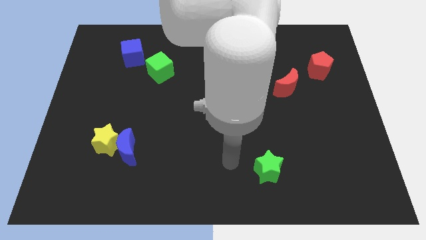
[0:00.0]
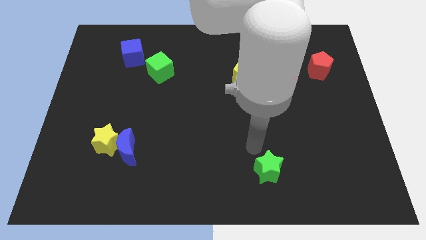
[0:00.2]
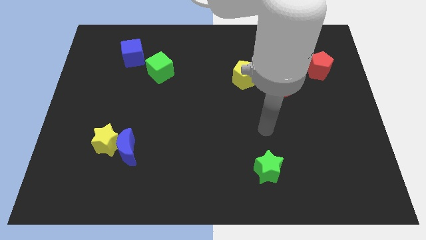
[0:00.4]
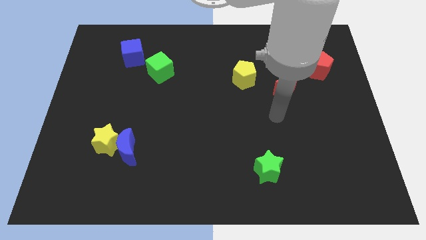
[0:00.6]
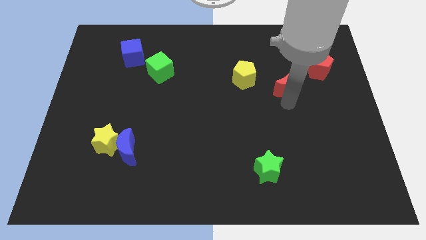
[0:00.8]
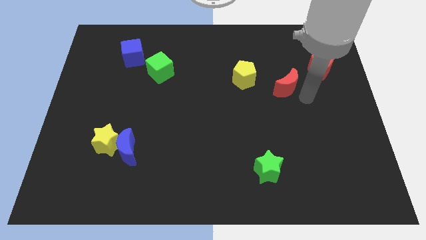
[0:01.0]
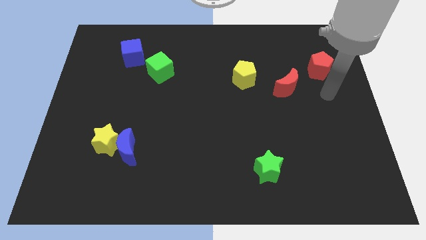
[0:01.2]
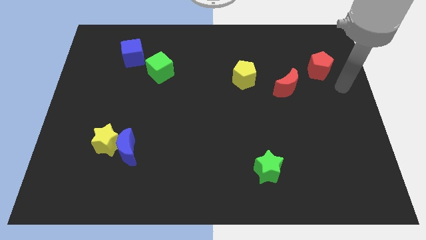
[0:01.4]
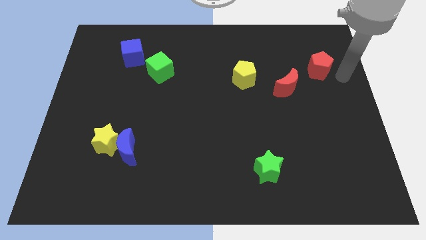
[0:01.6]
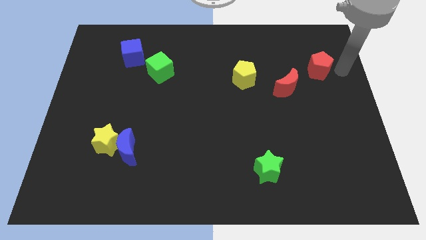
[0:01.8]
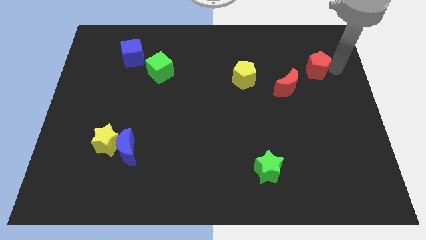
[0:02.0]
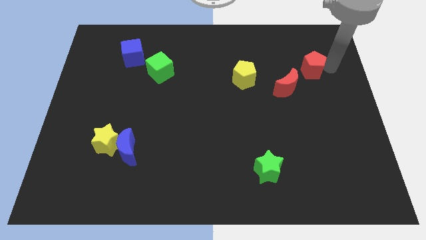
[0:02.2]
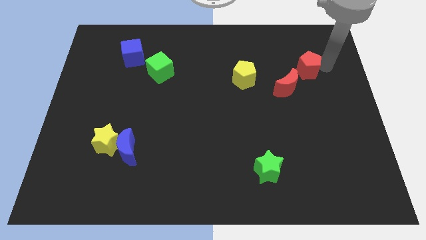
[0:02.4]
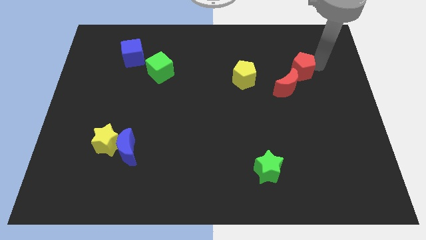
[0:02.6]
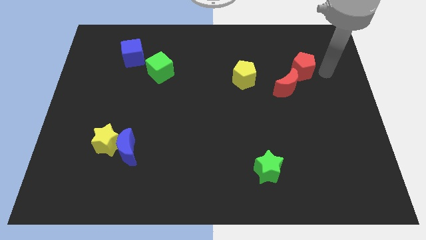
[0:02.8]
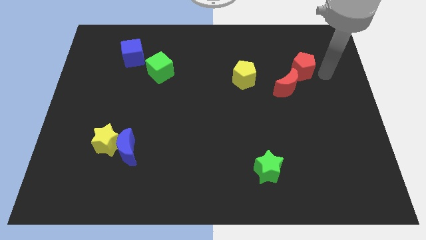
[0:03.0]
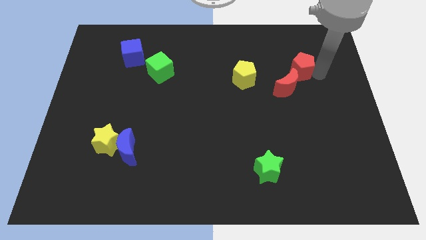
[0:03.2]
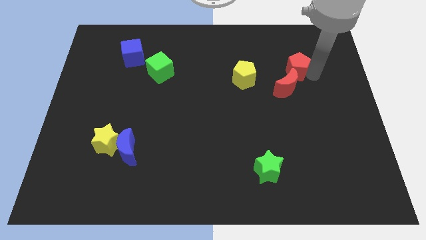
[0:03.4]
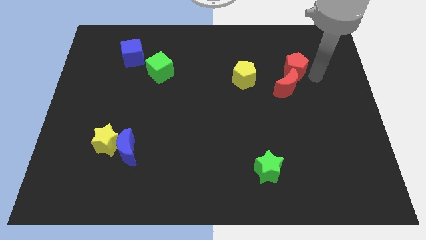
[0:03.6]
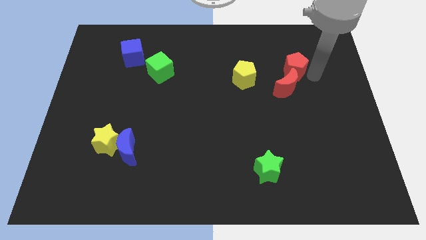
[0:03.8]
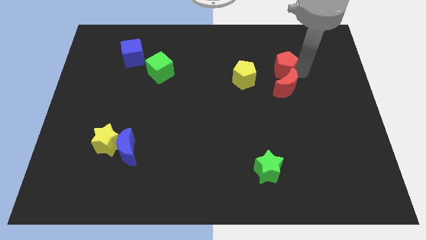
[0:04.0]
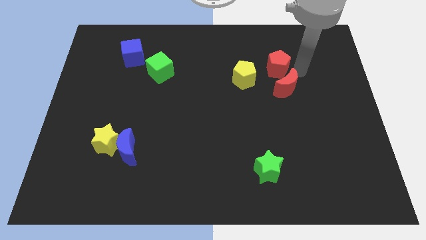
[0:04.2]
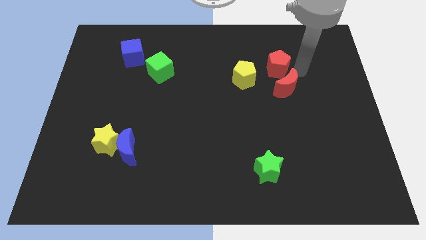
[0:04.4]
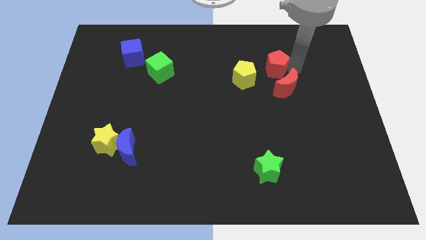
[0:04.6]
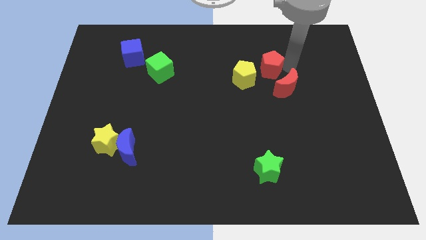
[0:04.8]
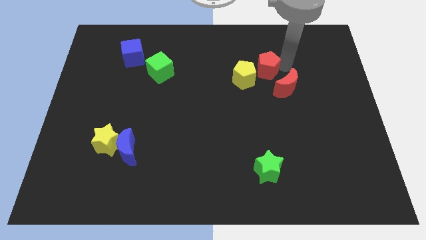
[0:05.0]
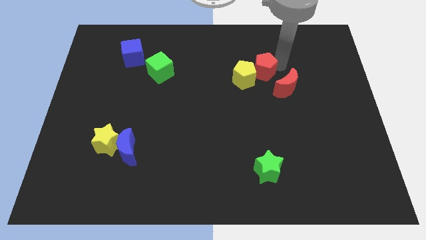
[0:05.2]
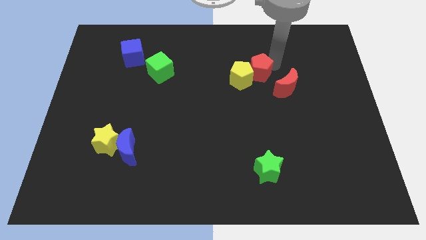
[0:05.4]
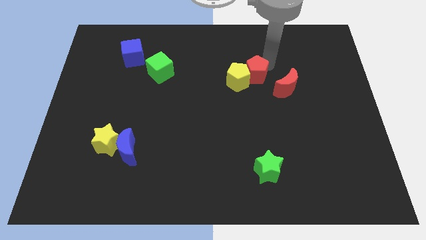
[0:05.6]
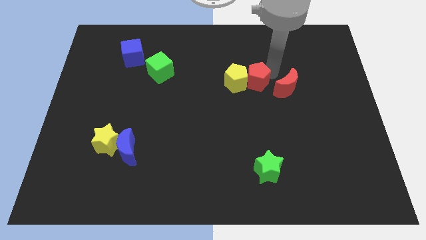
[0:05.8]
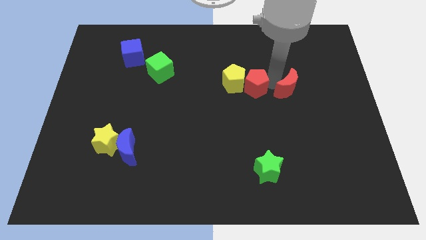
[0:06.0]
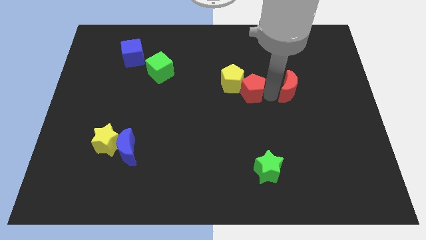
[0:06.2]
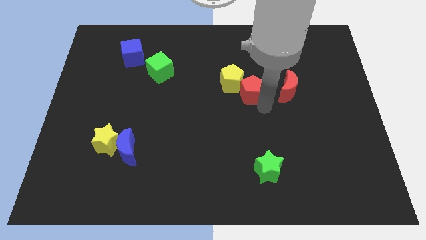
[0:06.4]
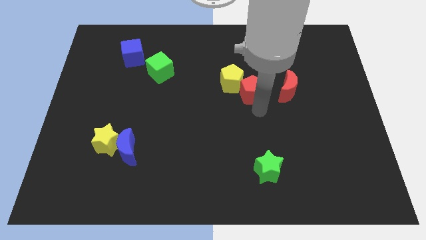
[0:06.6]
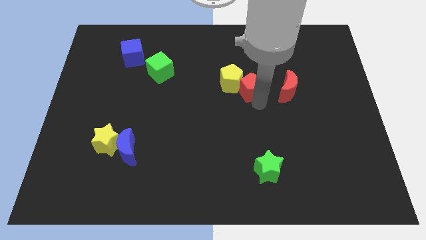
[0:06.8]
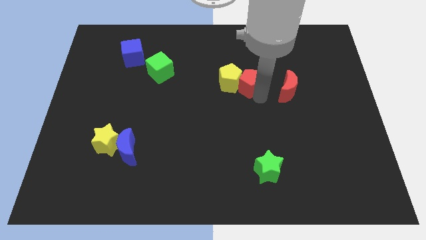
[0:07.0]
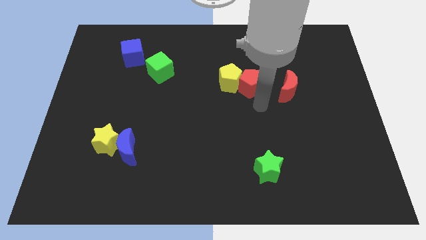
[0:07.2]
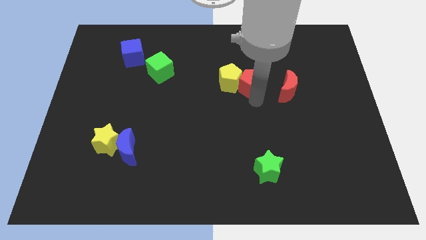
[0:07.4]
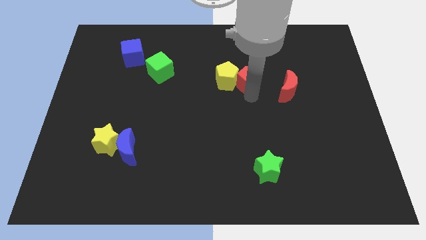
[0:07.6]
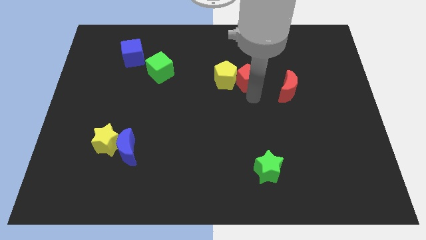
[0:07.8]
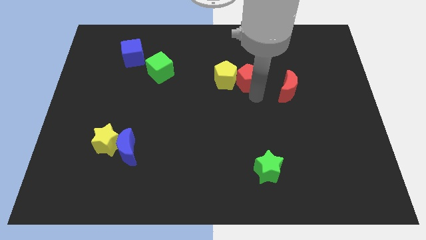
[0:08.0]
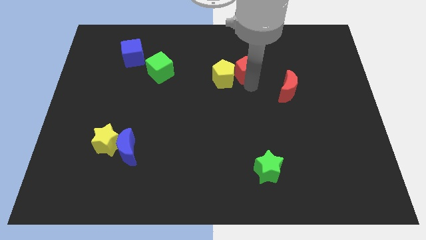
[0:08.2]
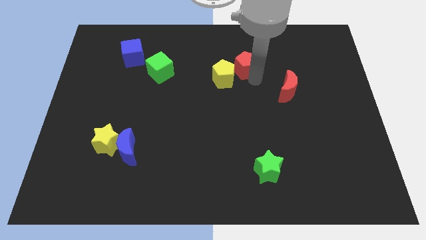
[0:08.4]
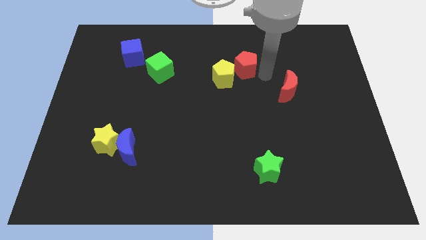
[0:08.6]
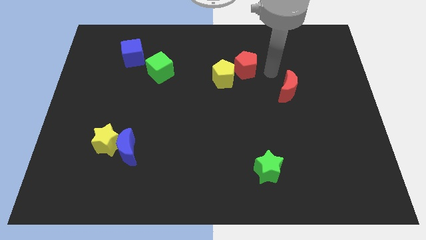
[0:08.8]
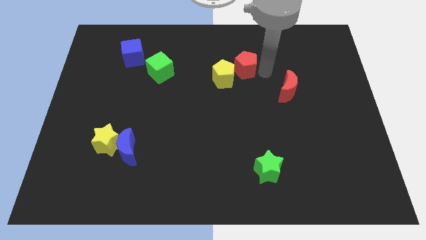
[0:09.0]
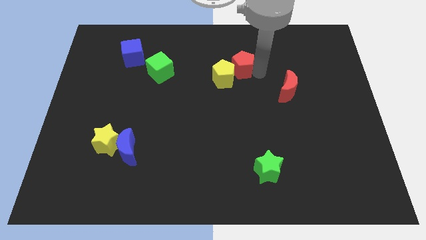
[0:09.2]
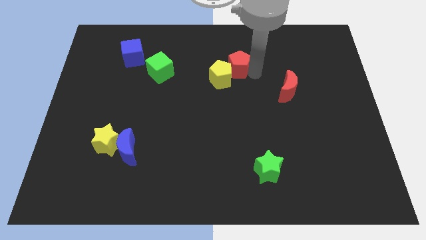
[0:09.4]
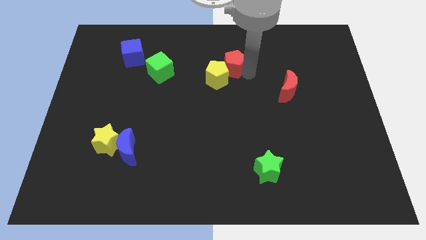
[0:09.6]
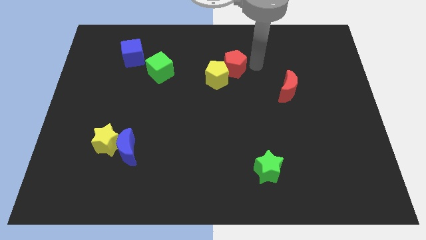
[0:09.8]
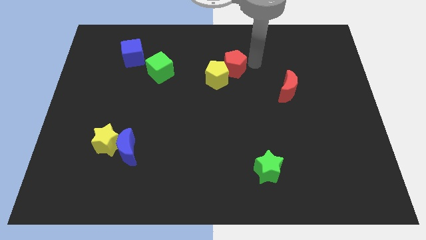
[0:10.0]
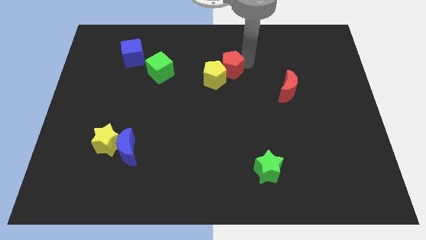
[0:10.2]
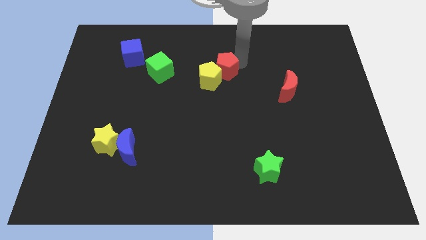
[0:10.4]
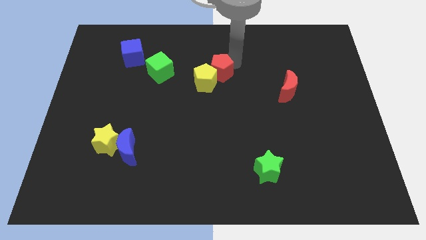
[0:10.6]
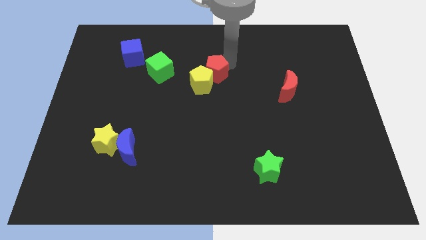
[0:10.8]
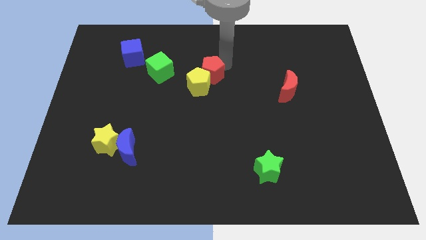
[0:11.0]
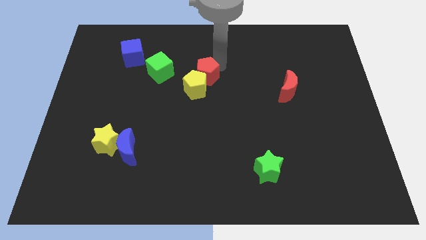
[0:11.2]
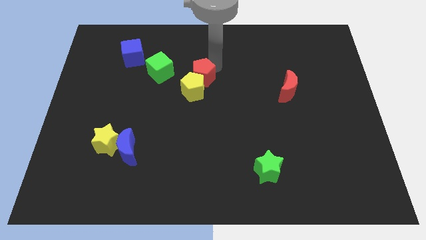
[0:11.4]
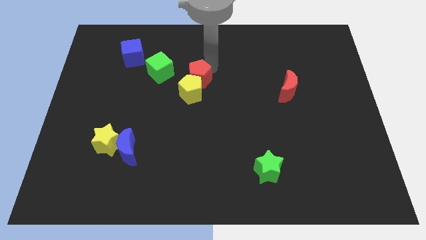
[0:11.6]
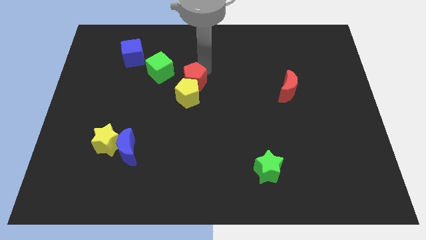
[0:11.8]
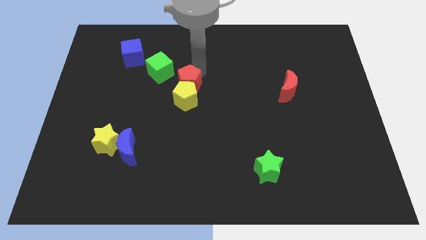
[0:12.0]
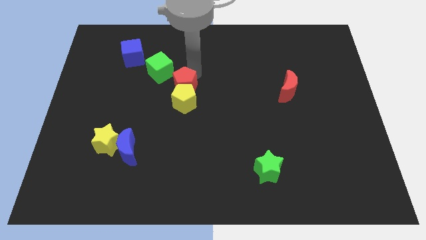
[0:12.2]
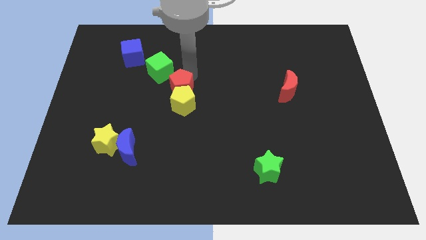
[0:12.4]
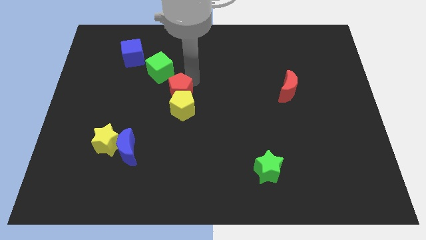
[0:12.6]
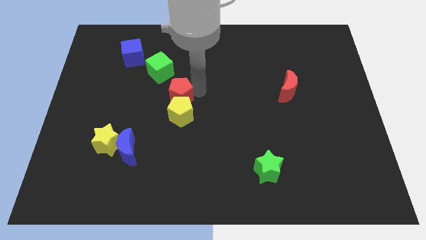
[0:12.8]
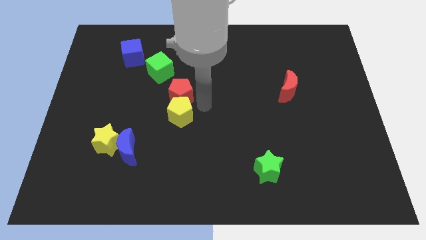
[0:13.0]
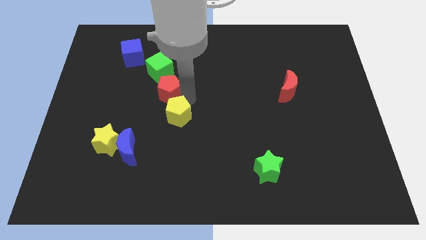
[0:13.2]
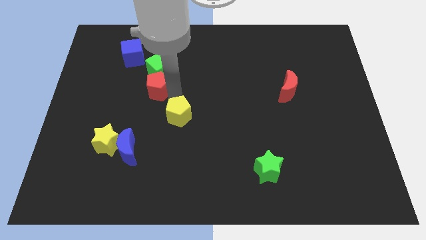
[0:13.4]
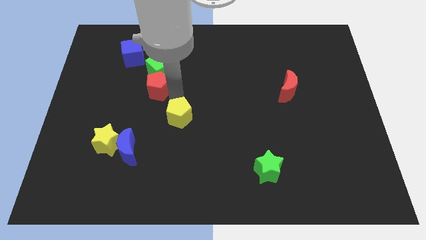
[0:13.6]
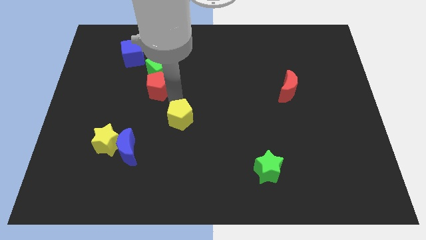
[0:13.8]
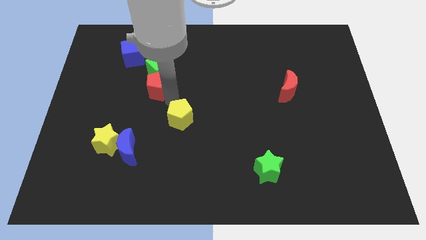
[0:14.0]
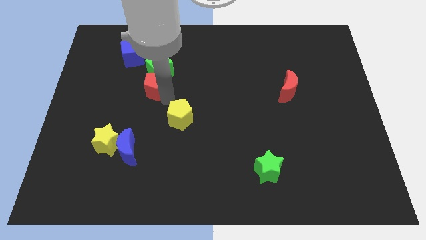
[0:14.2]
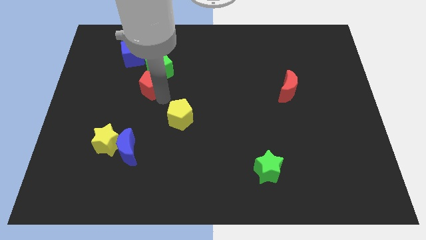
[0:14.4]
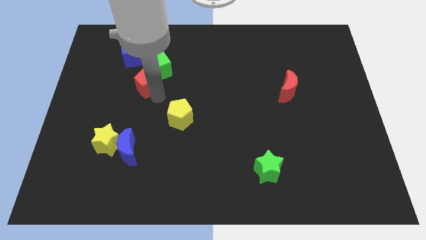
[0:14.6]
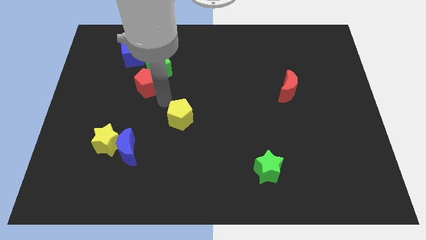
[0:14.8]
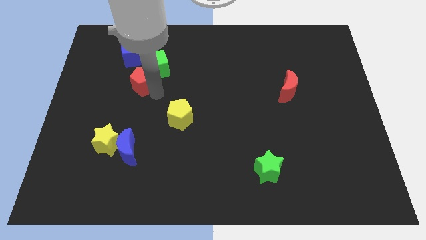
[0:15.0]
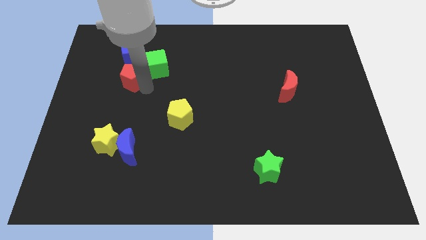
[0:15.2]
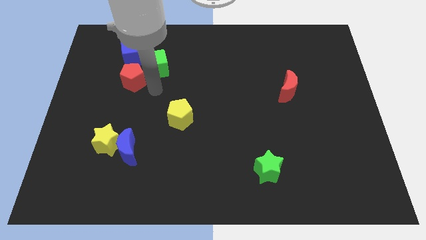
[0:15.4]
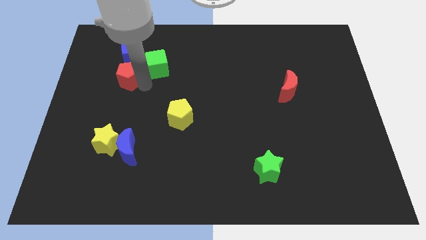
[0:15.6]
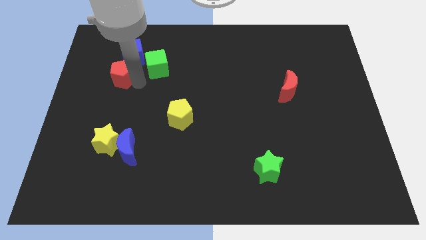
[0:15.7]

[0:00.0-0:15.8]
move the red pentagon to the bottom left side of the blue cube
